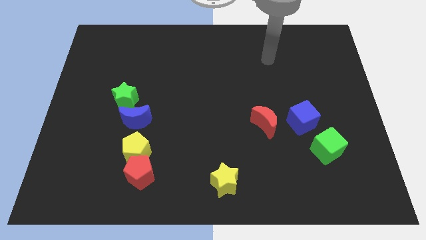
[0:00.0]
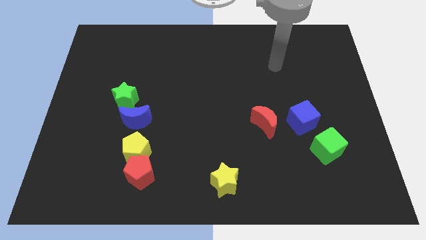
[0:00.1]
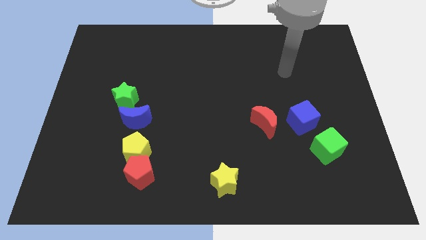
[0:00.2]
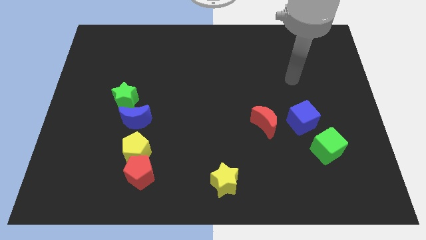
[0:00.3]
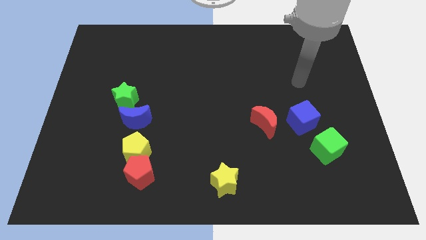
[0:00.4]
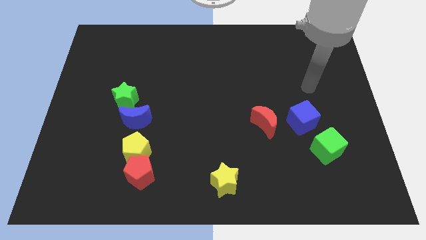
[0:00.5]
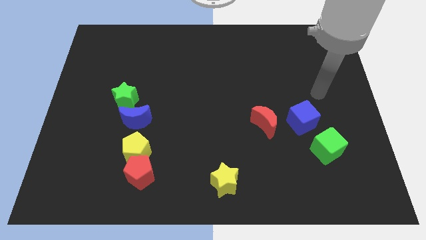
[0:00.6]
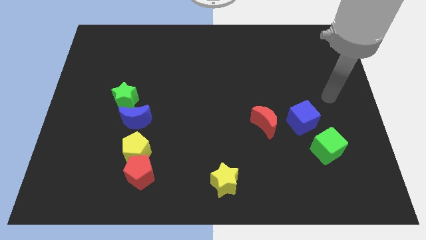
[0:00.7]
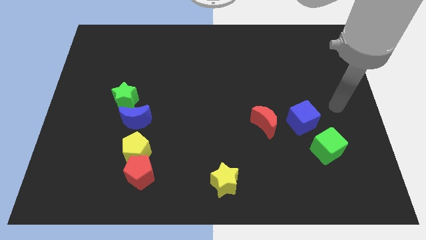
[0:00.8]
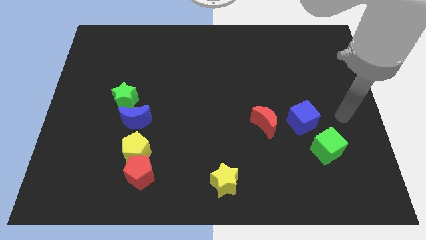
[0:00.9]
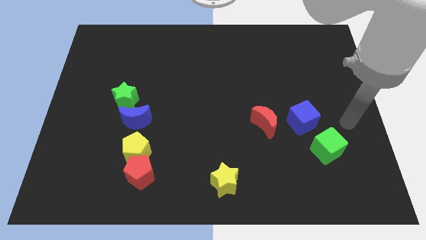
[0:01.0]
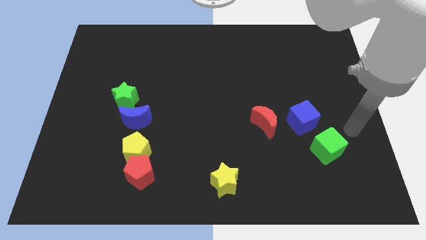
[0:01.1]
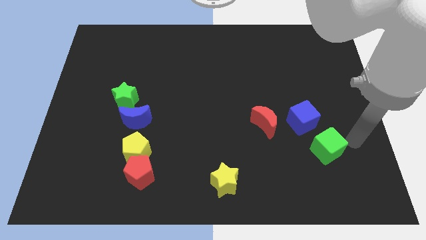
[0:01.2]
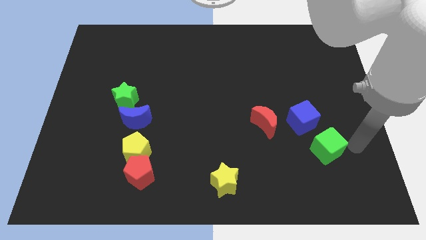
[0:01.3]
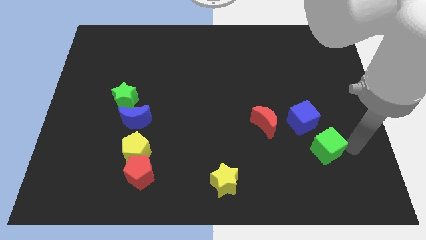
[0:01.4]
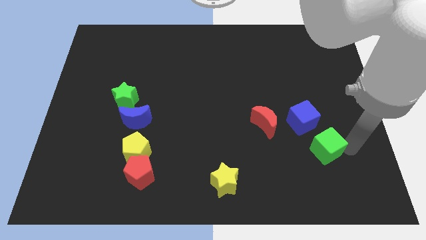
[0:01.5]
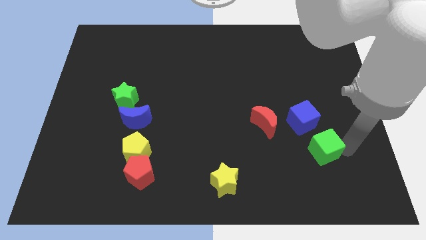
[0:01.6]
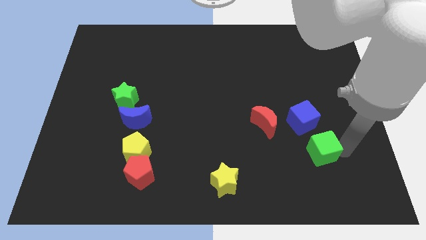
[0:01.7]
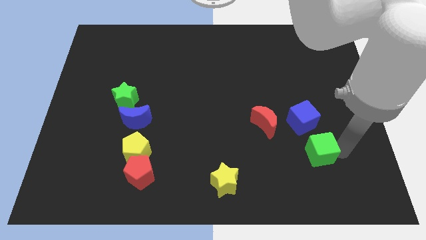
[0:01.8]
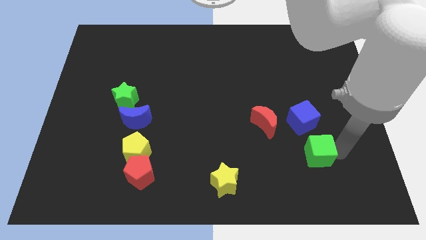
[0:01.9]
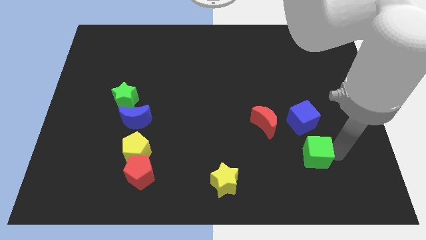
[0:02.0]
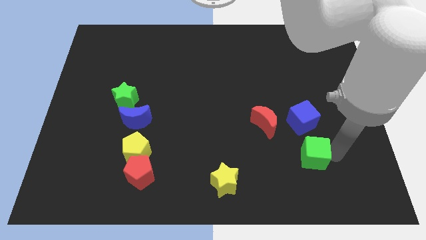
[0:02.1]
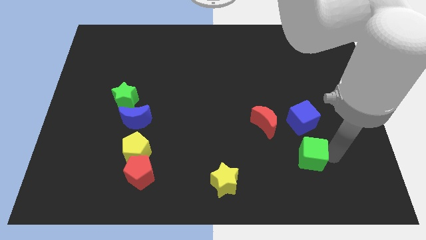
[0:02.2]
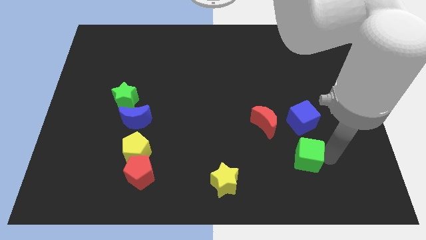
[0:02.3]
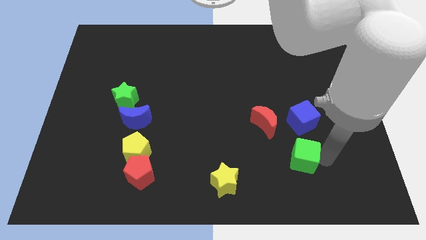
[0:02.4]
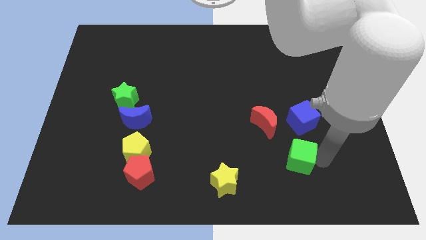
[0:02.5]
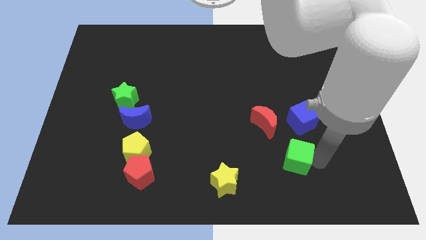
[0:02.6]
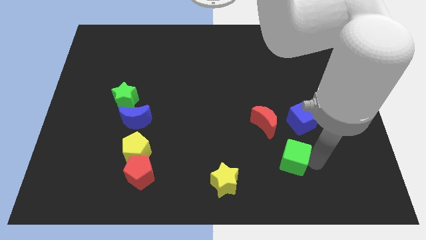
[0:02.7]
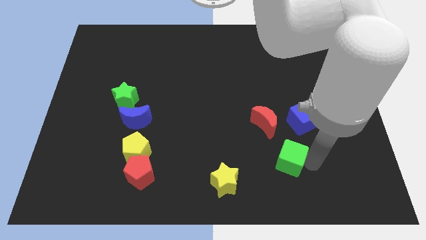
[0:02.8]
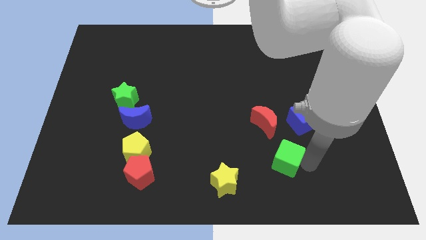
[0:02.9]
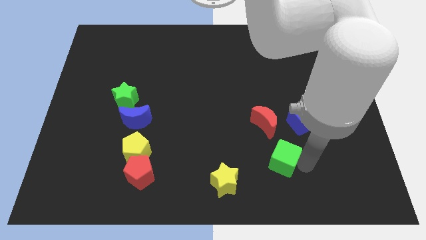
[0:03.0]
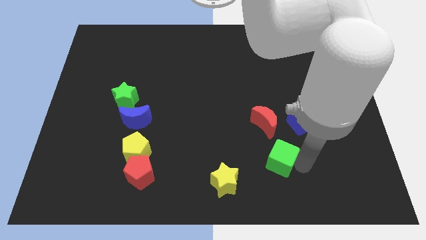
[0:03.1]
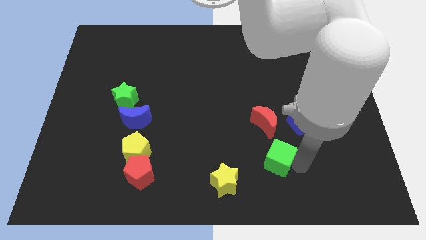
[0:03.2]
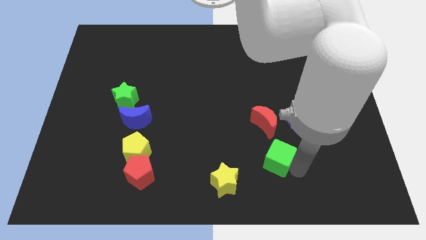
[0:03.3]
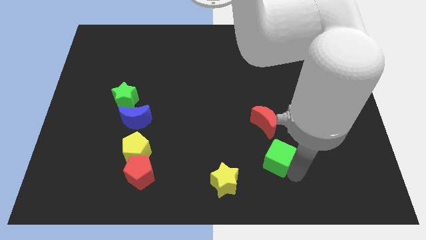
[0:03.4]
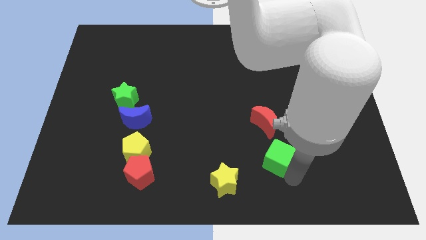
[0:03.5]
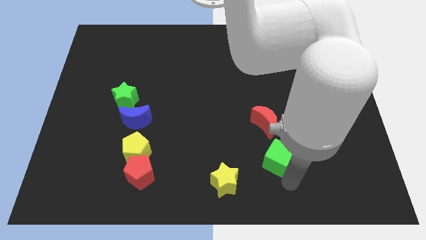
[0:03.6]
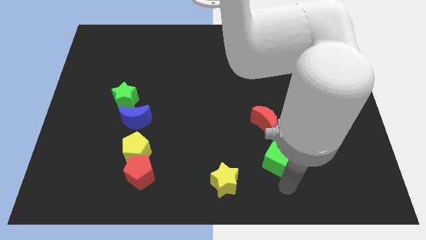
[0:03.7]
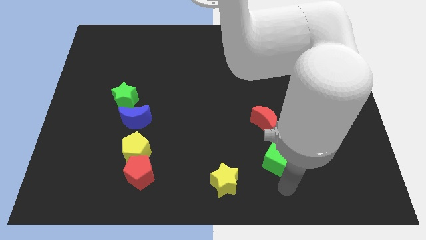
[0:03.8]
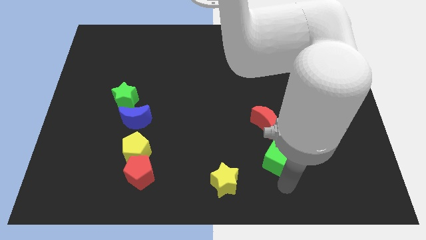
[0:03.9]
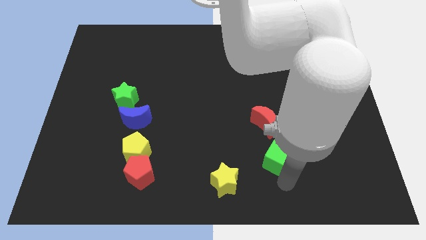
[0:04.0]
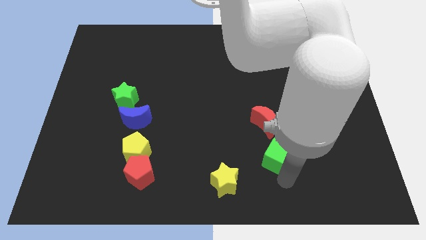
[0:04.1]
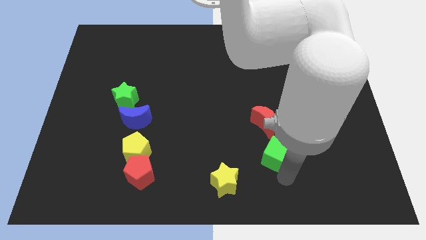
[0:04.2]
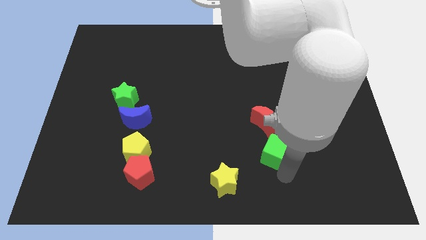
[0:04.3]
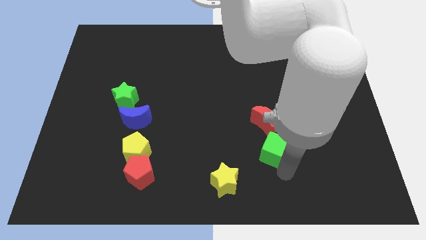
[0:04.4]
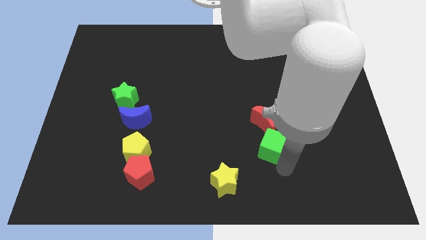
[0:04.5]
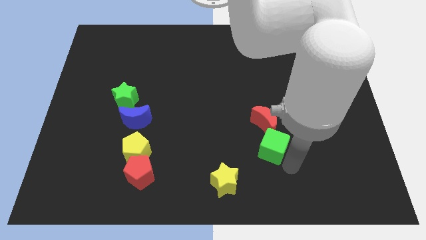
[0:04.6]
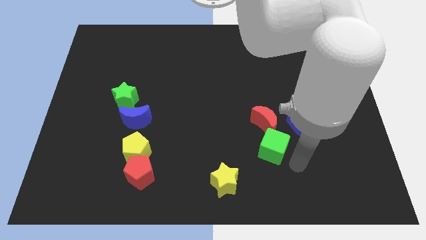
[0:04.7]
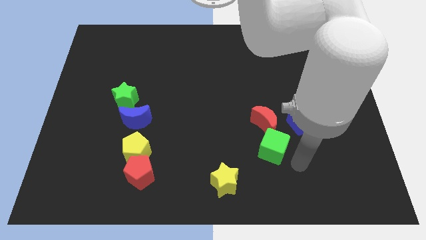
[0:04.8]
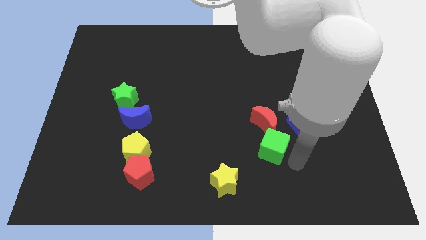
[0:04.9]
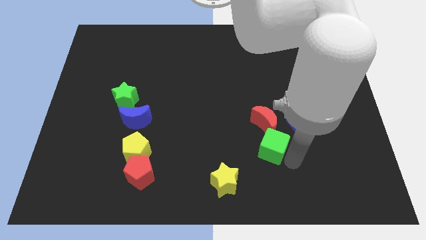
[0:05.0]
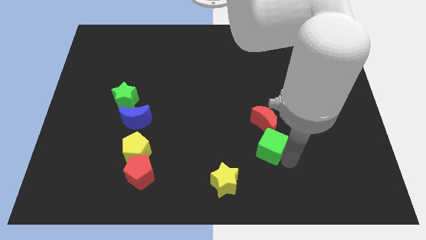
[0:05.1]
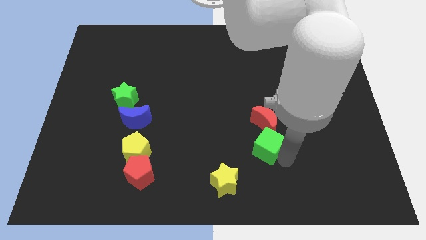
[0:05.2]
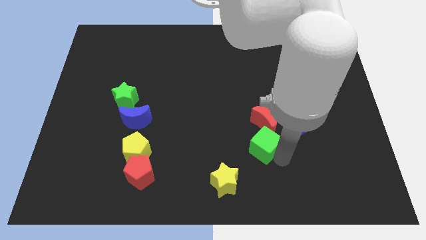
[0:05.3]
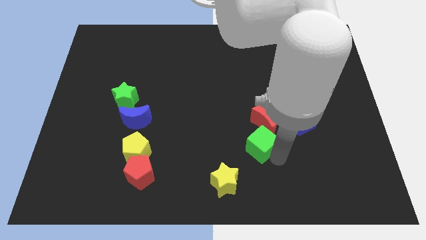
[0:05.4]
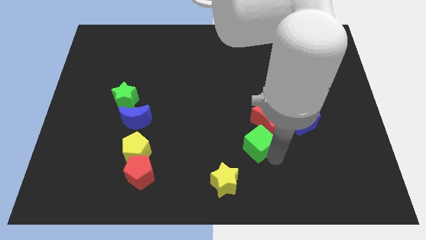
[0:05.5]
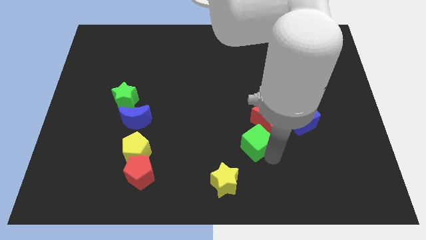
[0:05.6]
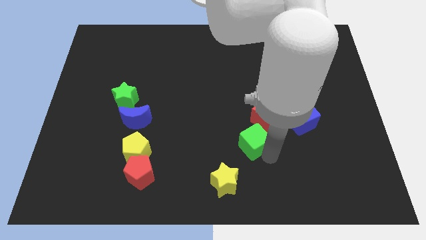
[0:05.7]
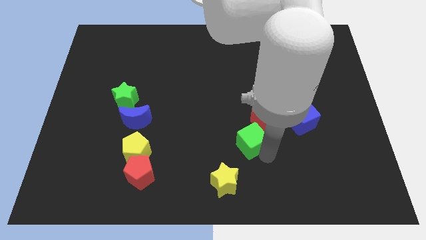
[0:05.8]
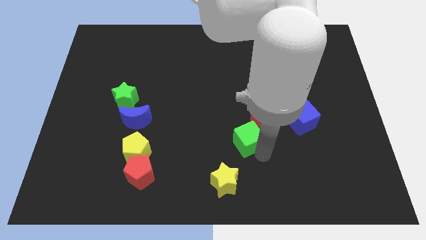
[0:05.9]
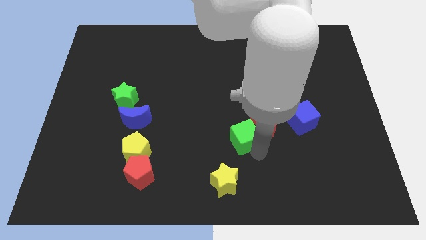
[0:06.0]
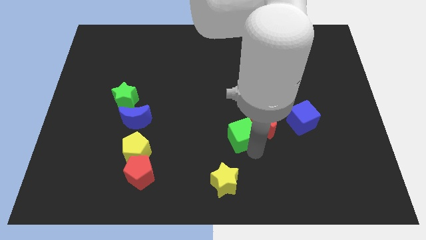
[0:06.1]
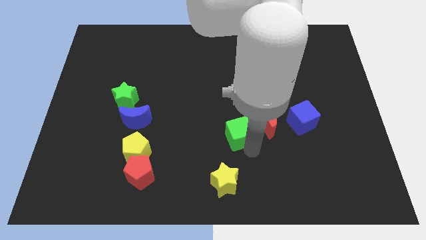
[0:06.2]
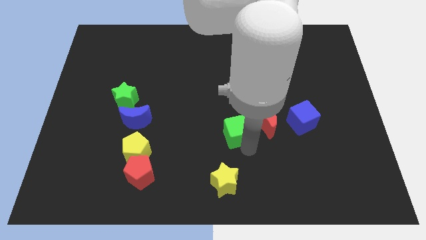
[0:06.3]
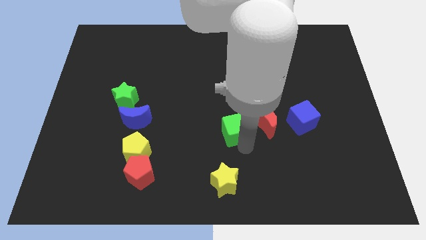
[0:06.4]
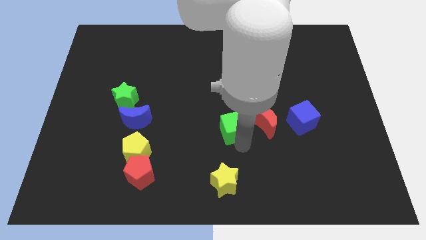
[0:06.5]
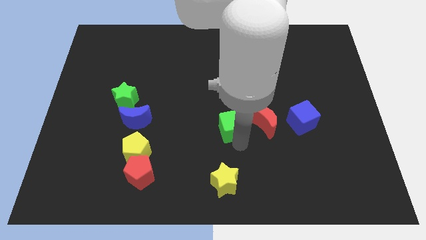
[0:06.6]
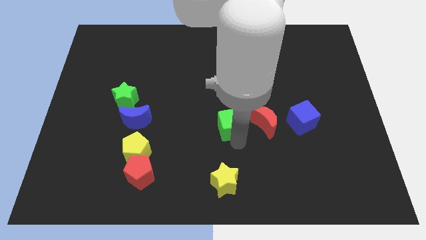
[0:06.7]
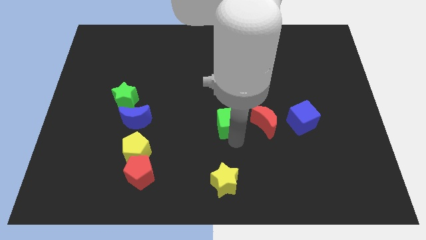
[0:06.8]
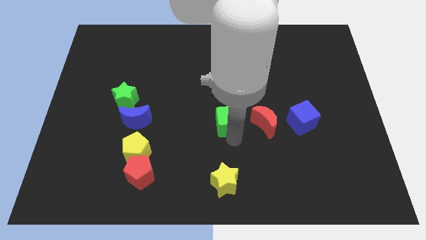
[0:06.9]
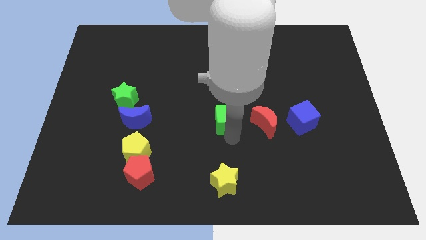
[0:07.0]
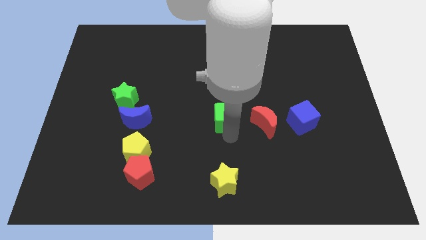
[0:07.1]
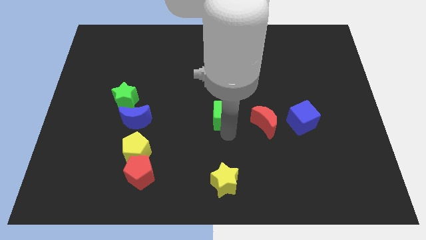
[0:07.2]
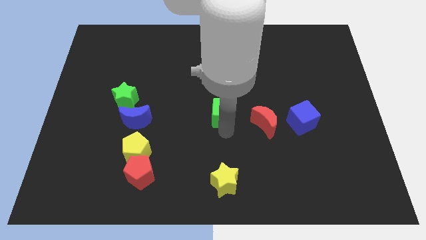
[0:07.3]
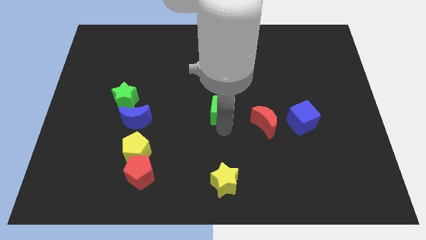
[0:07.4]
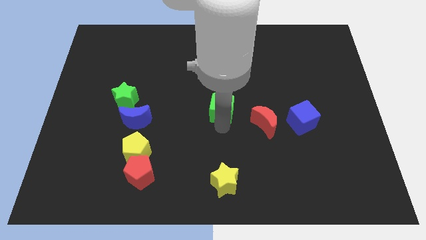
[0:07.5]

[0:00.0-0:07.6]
move the green cube up and left diagonally

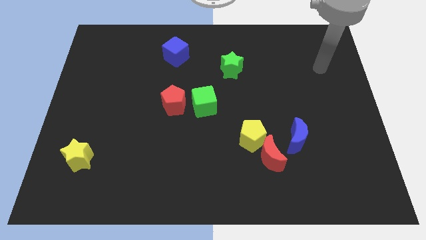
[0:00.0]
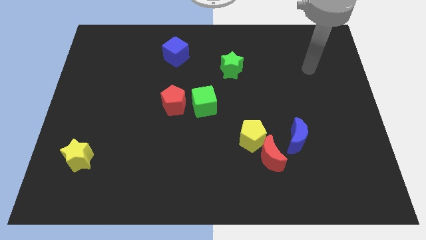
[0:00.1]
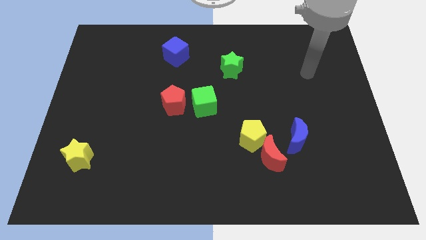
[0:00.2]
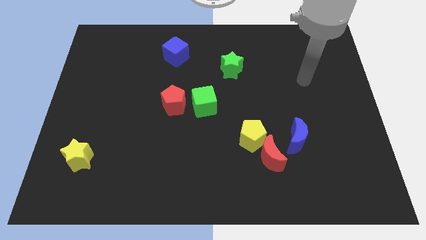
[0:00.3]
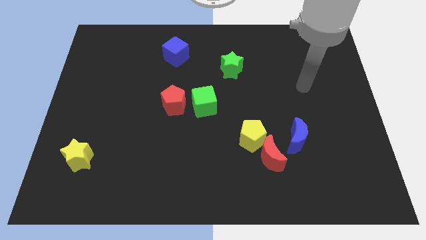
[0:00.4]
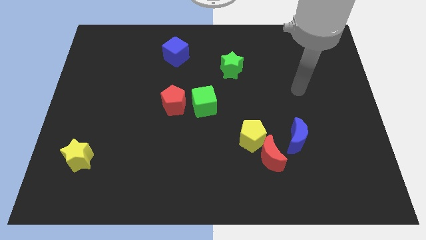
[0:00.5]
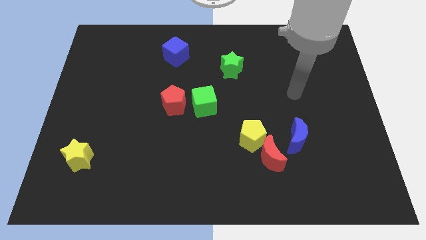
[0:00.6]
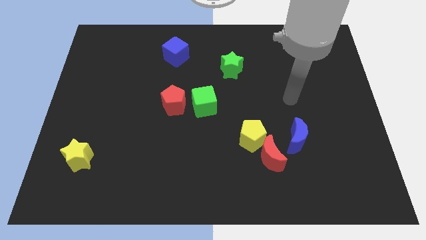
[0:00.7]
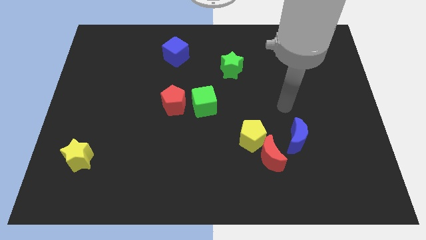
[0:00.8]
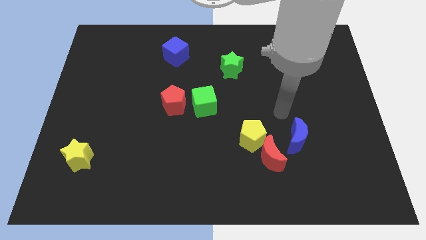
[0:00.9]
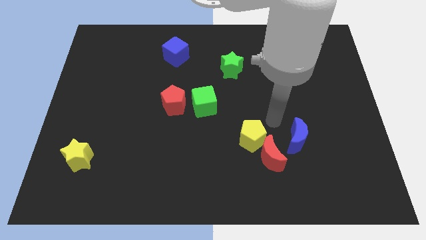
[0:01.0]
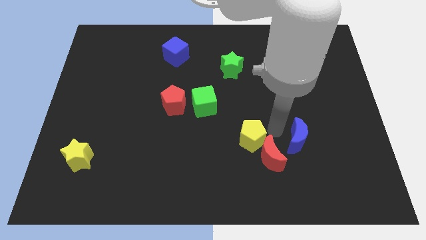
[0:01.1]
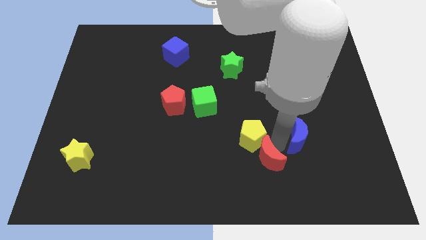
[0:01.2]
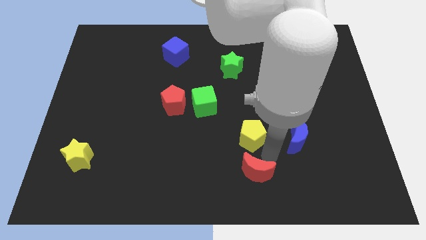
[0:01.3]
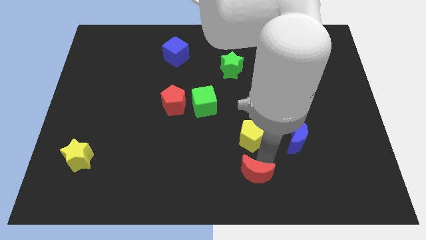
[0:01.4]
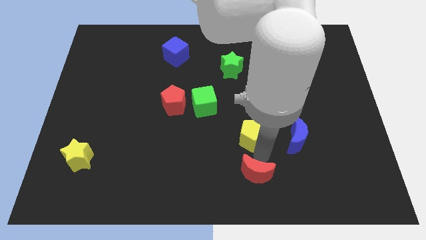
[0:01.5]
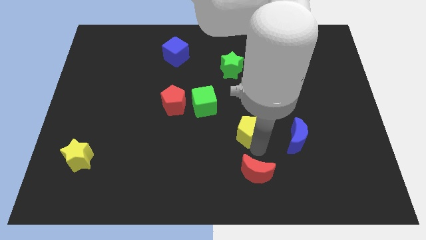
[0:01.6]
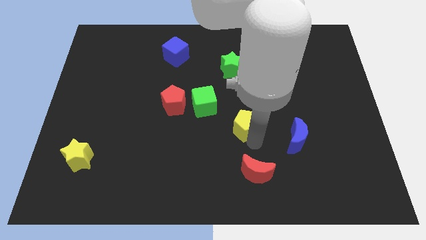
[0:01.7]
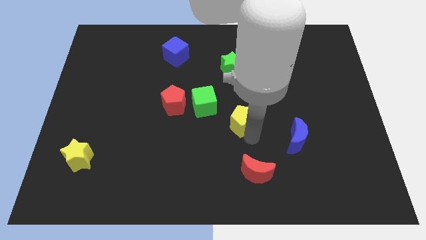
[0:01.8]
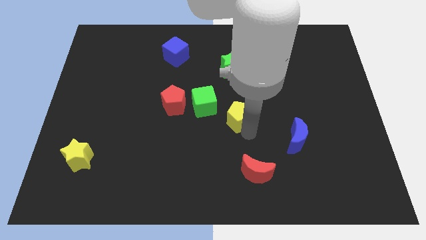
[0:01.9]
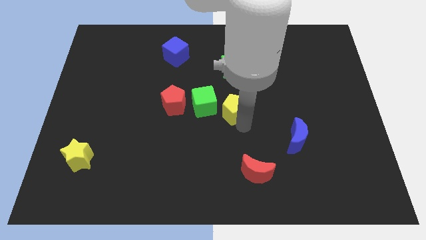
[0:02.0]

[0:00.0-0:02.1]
move the yellow pentagon up and to the left a little bit
